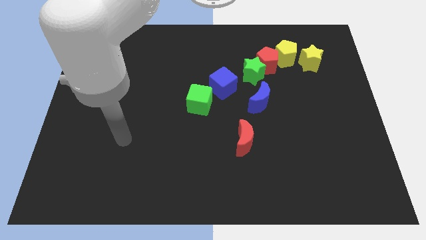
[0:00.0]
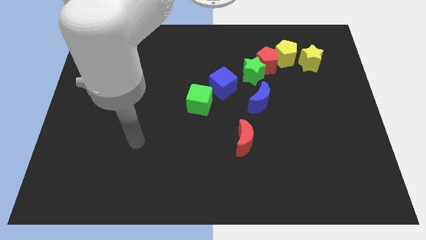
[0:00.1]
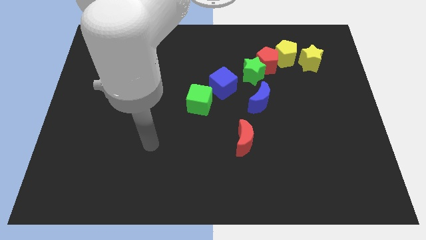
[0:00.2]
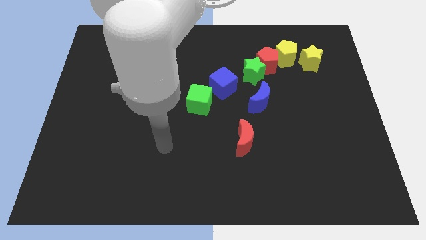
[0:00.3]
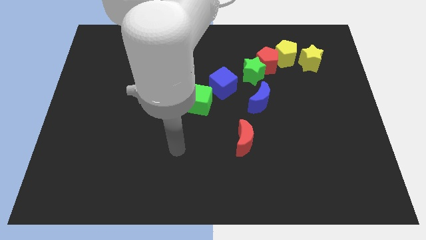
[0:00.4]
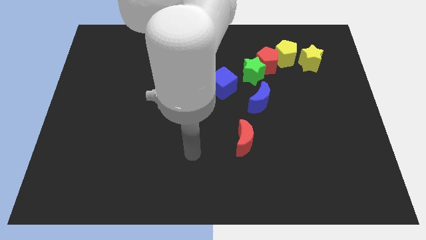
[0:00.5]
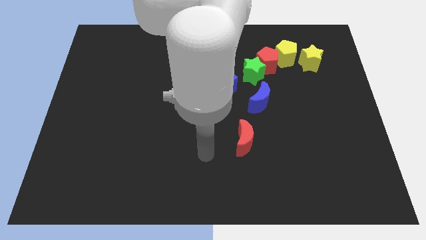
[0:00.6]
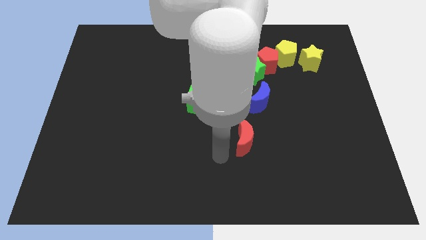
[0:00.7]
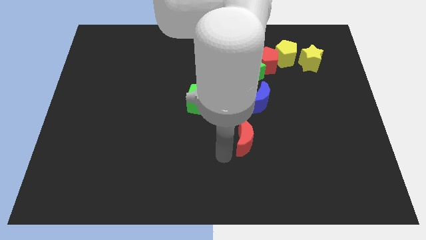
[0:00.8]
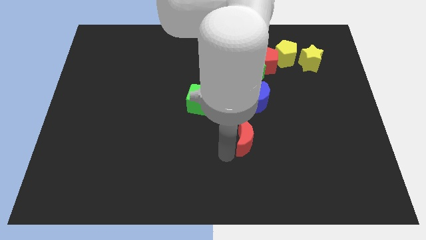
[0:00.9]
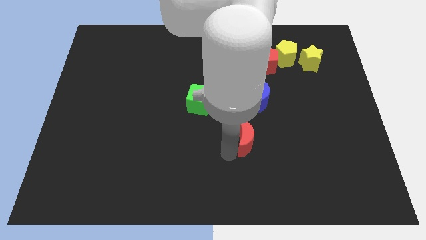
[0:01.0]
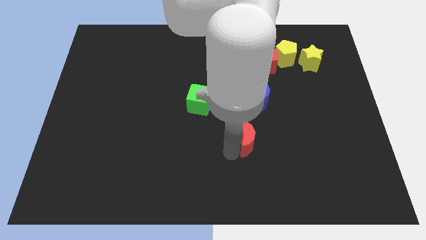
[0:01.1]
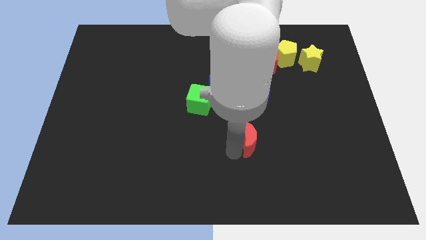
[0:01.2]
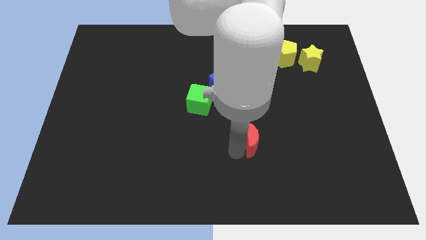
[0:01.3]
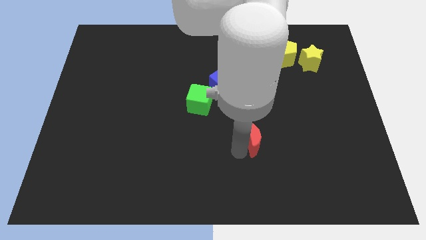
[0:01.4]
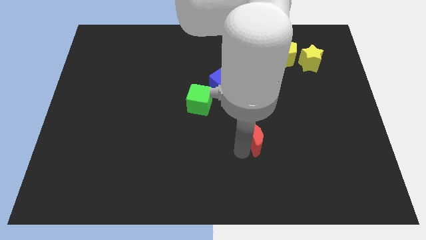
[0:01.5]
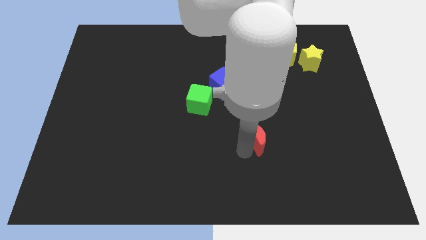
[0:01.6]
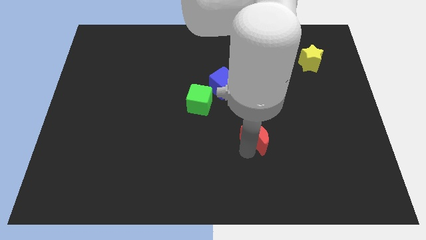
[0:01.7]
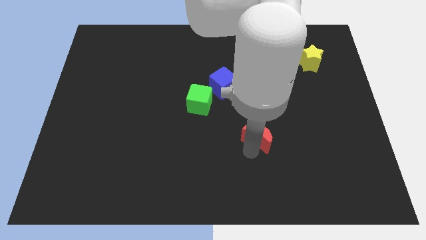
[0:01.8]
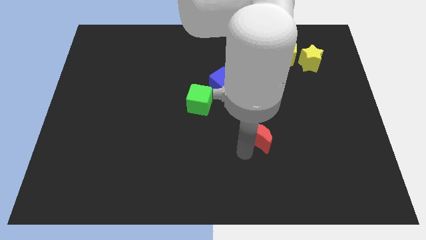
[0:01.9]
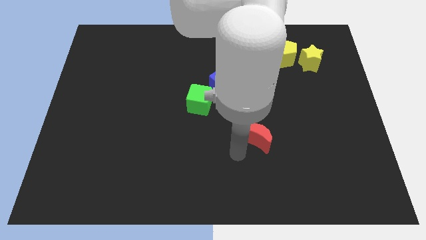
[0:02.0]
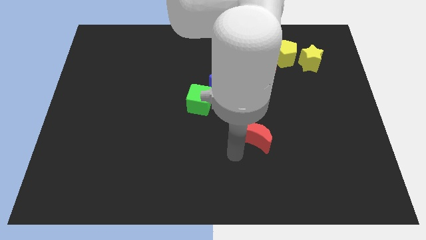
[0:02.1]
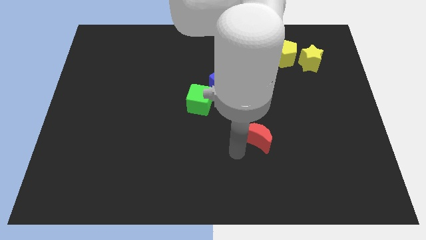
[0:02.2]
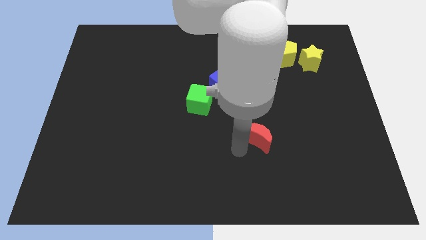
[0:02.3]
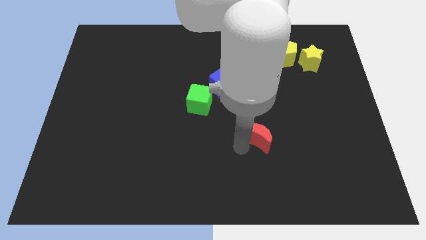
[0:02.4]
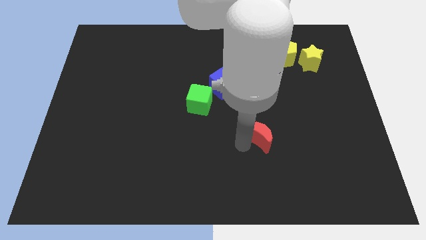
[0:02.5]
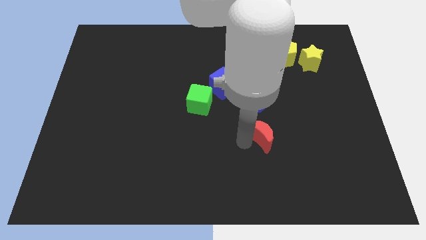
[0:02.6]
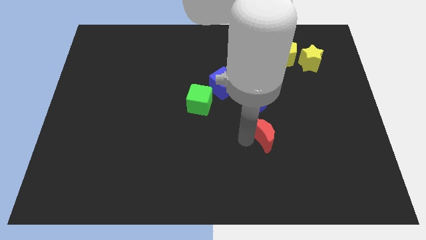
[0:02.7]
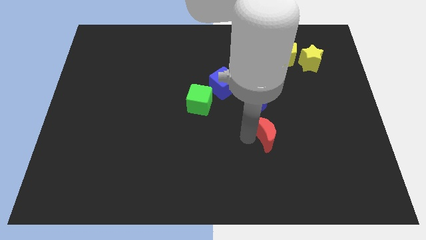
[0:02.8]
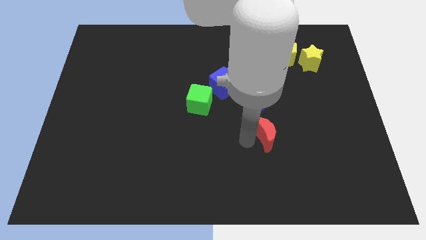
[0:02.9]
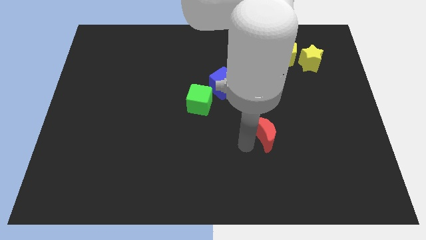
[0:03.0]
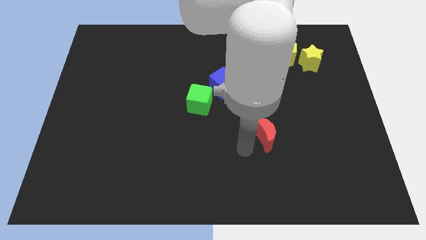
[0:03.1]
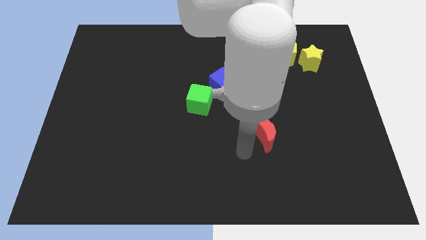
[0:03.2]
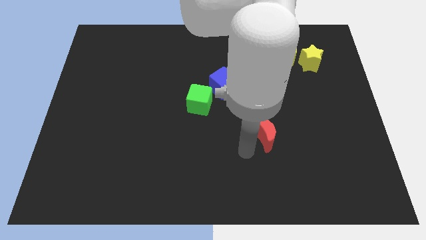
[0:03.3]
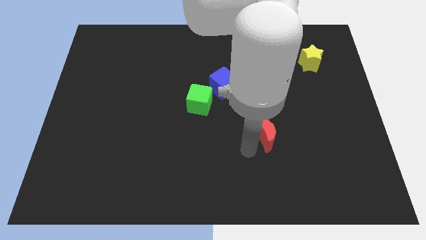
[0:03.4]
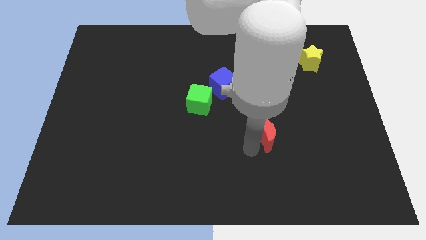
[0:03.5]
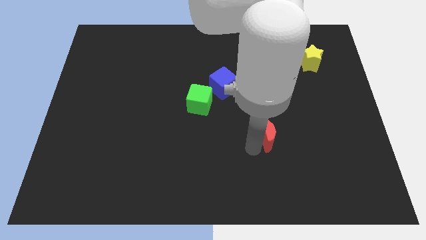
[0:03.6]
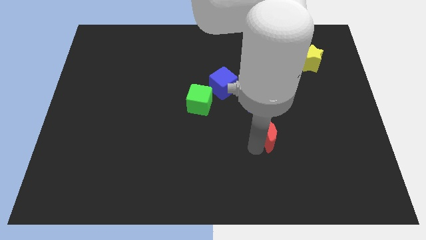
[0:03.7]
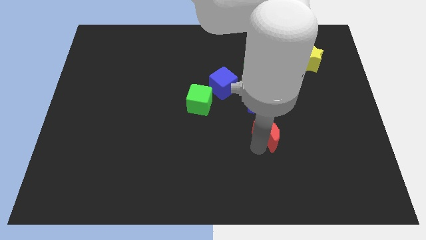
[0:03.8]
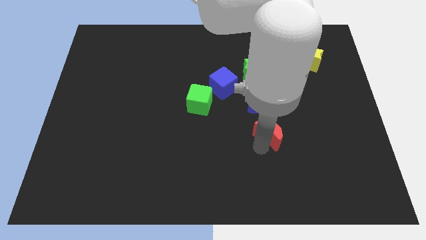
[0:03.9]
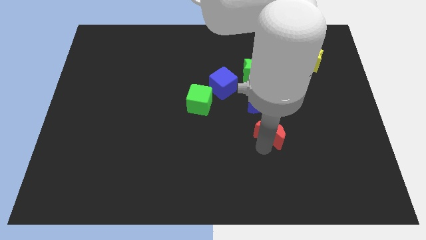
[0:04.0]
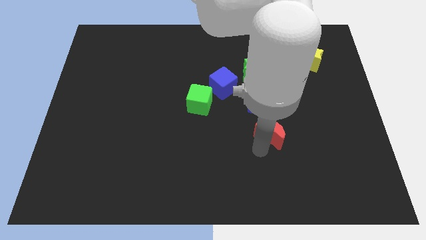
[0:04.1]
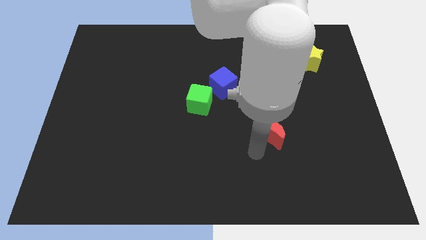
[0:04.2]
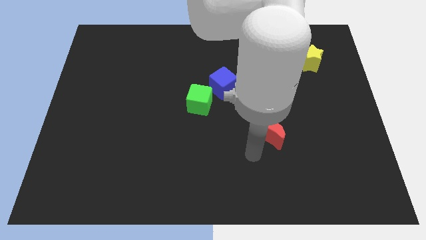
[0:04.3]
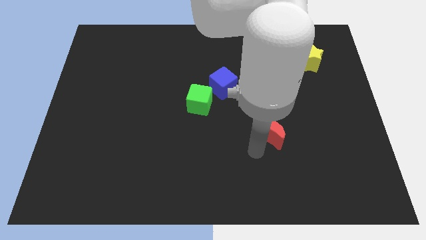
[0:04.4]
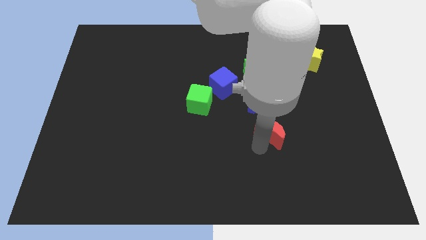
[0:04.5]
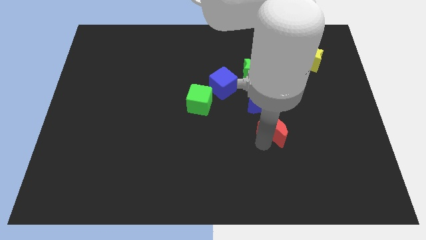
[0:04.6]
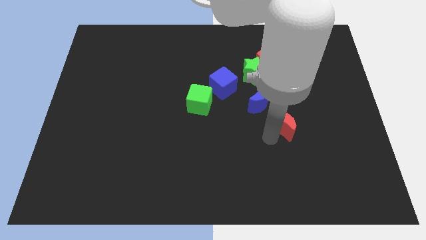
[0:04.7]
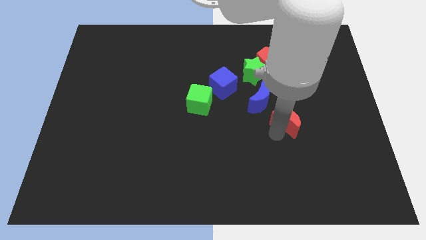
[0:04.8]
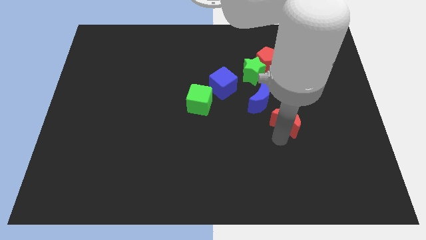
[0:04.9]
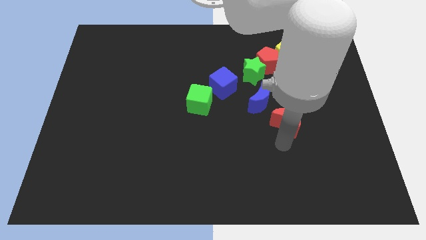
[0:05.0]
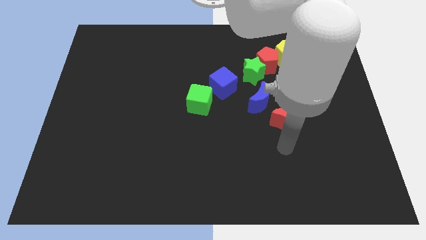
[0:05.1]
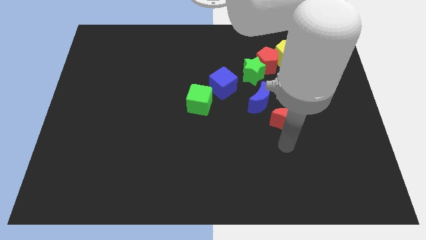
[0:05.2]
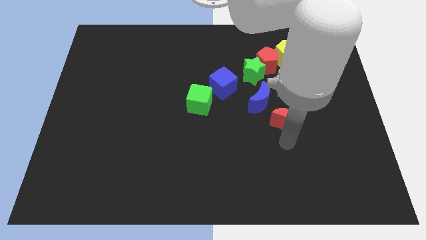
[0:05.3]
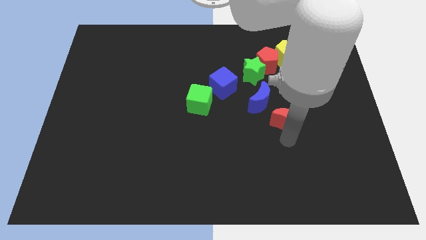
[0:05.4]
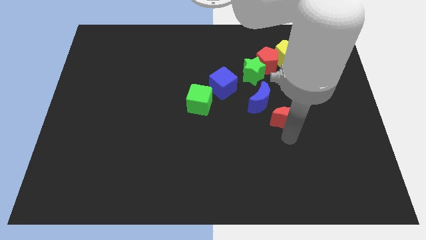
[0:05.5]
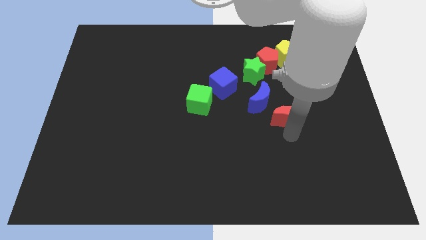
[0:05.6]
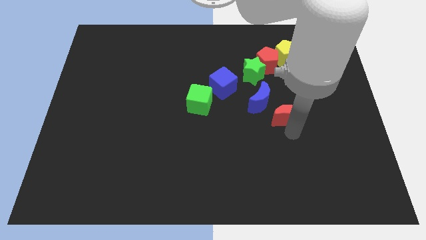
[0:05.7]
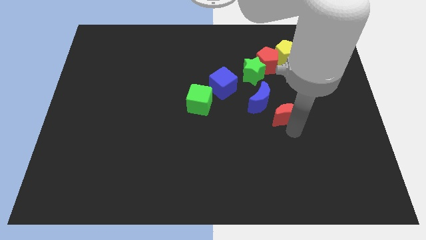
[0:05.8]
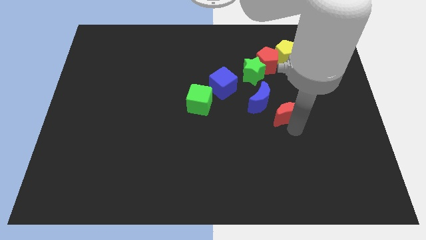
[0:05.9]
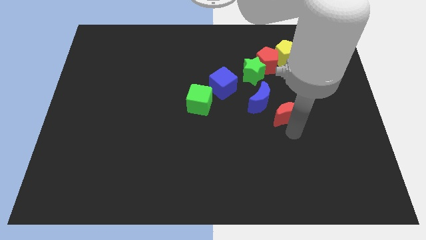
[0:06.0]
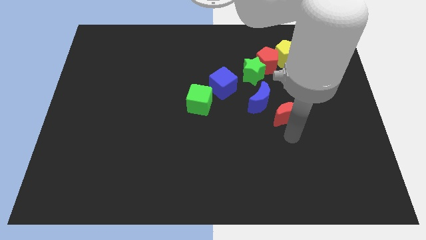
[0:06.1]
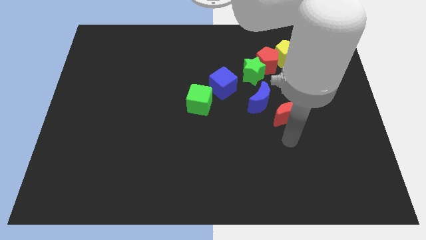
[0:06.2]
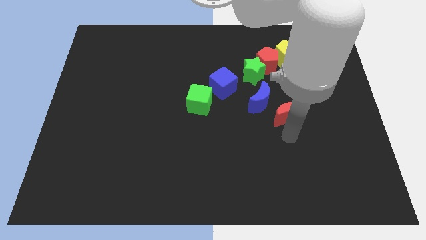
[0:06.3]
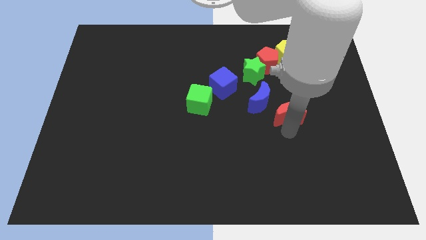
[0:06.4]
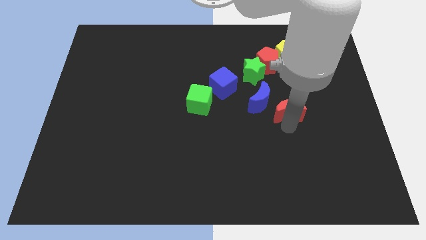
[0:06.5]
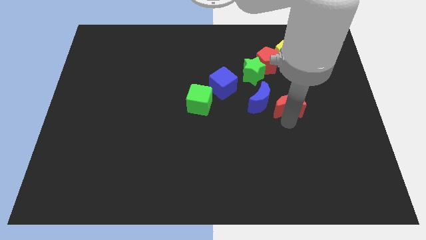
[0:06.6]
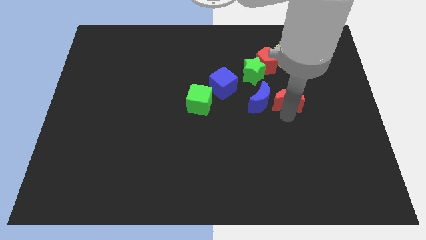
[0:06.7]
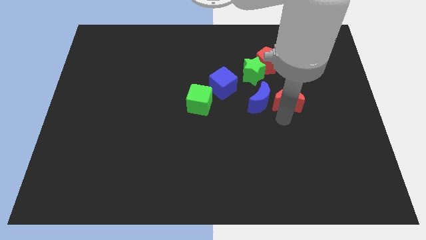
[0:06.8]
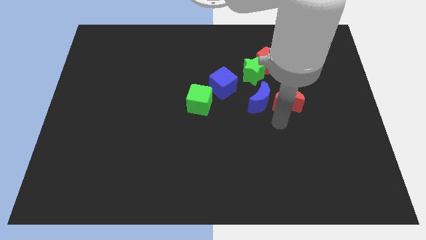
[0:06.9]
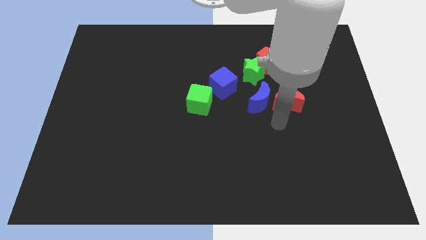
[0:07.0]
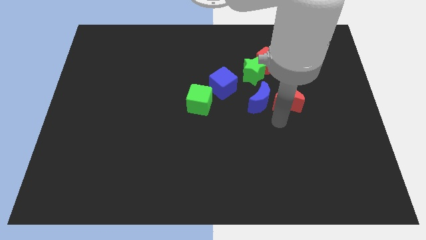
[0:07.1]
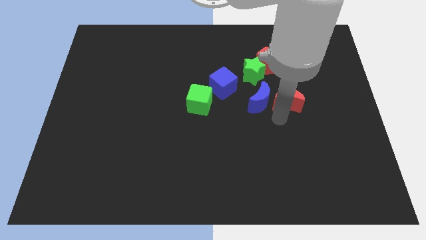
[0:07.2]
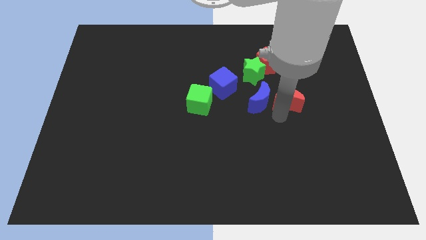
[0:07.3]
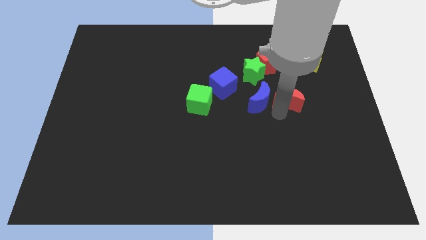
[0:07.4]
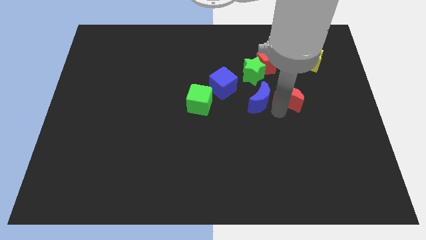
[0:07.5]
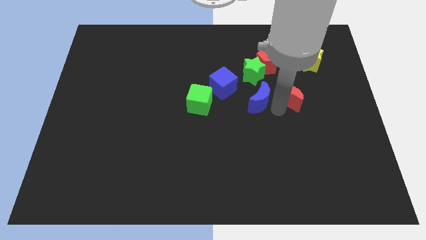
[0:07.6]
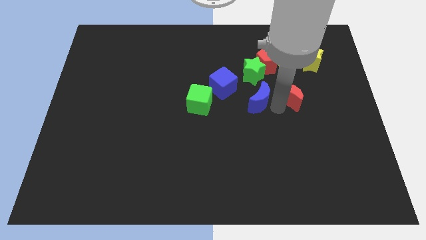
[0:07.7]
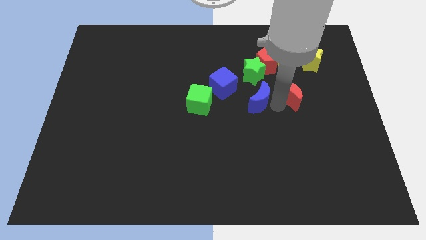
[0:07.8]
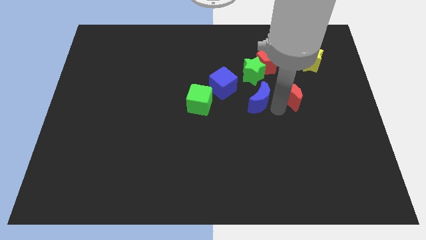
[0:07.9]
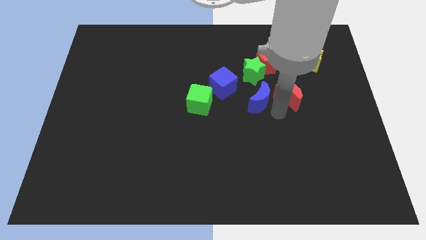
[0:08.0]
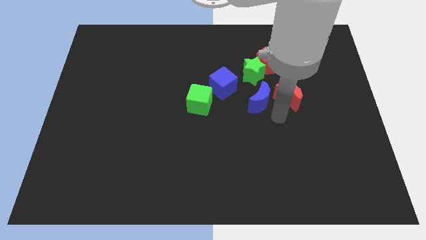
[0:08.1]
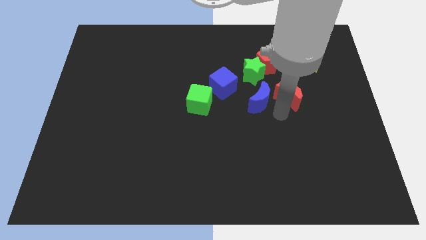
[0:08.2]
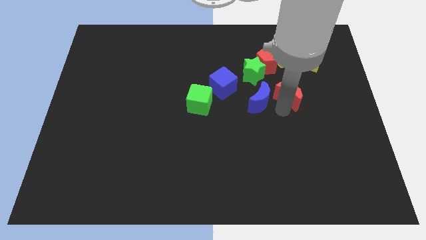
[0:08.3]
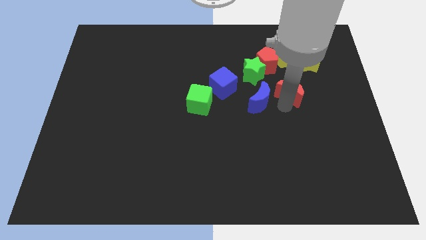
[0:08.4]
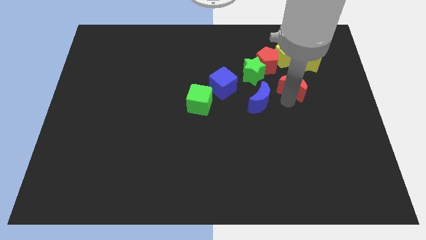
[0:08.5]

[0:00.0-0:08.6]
push the red moon to the bottom left of the yellow star
